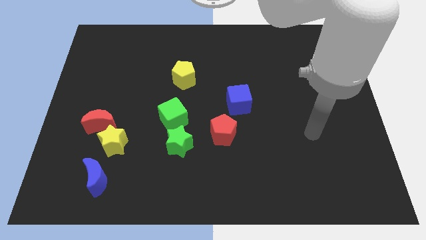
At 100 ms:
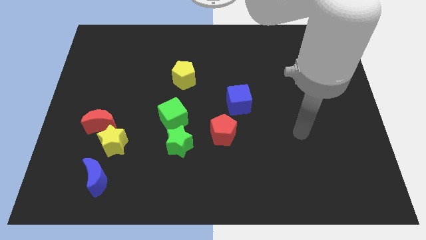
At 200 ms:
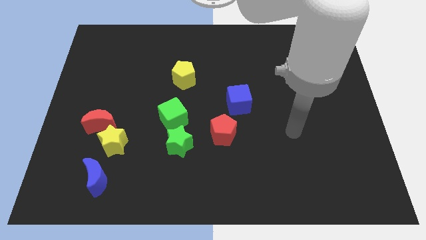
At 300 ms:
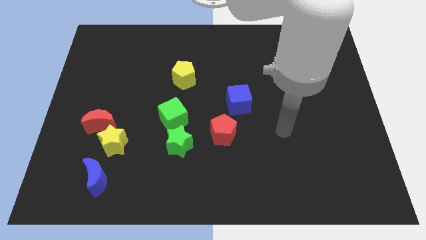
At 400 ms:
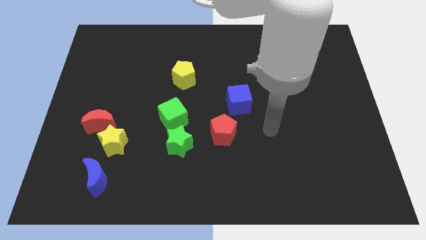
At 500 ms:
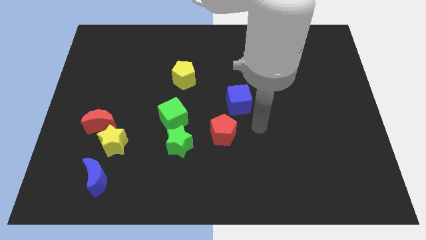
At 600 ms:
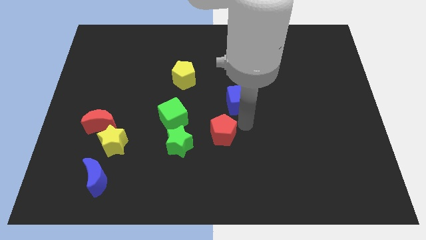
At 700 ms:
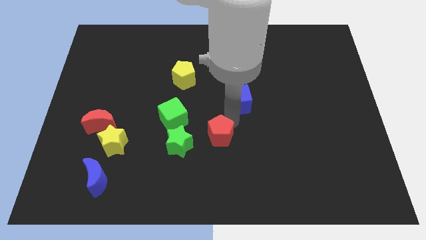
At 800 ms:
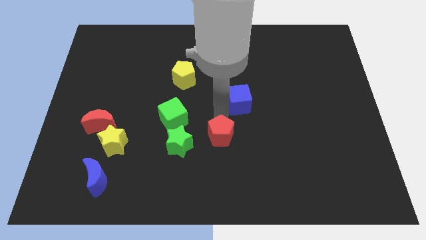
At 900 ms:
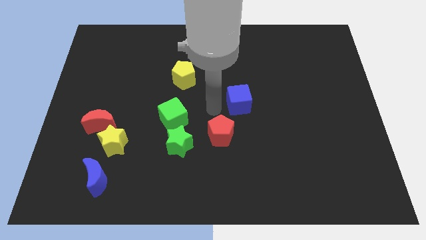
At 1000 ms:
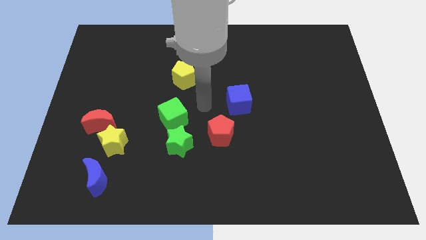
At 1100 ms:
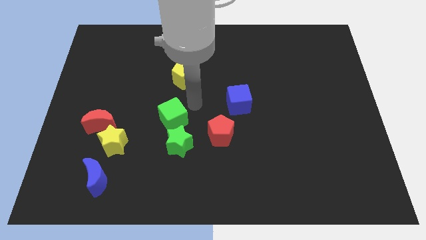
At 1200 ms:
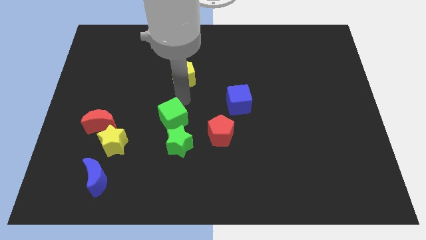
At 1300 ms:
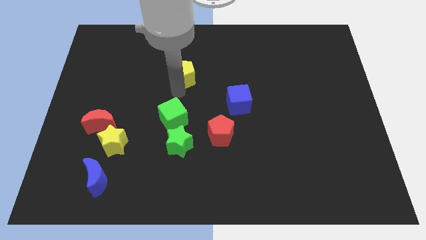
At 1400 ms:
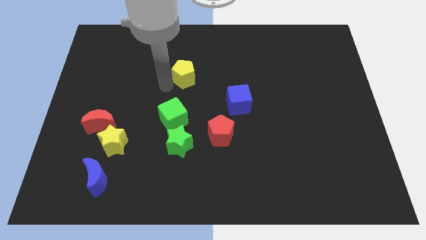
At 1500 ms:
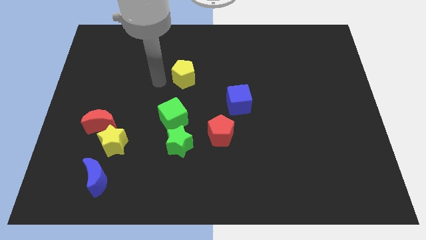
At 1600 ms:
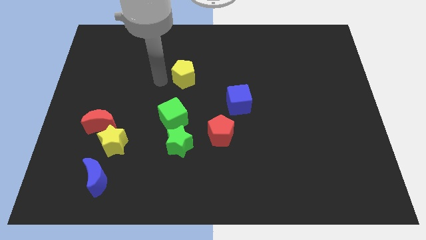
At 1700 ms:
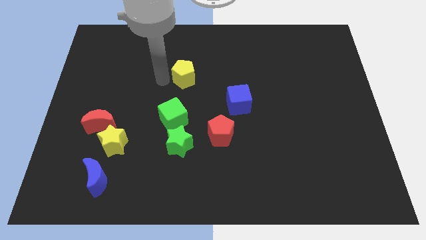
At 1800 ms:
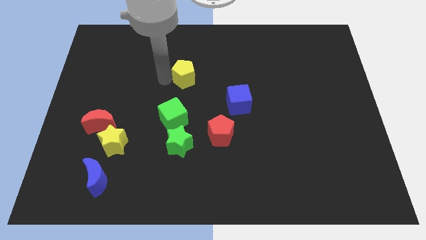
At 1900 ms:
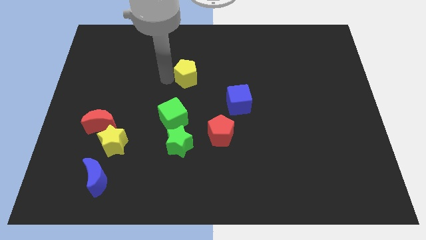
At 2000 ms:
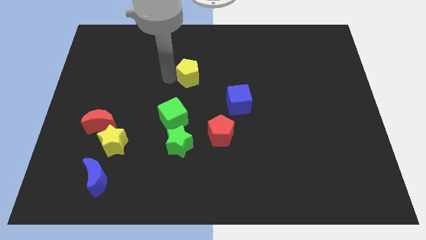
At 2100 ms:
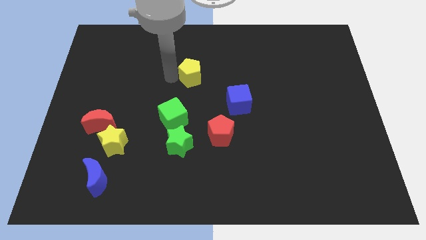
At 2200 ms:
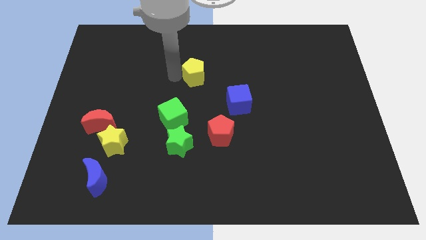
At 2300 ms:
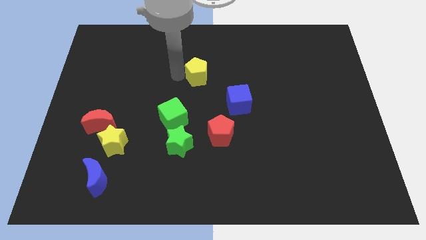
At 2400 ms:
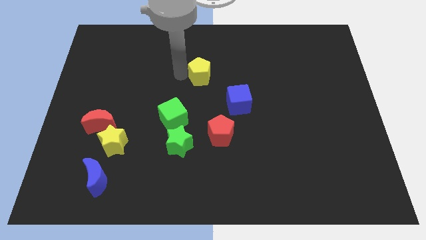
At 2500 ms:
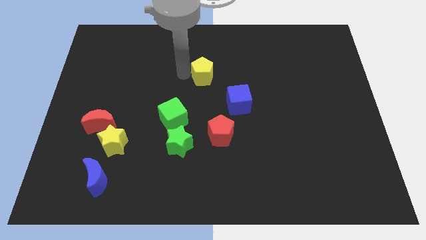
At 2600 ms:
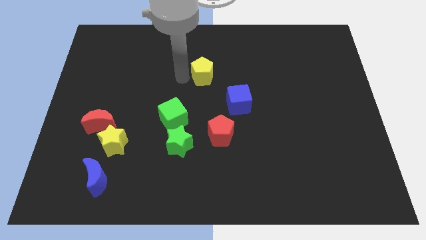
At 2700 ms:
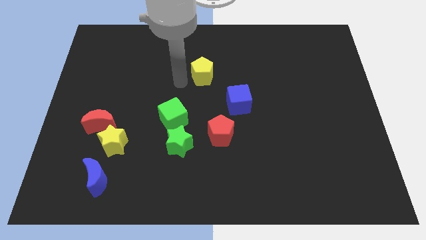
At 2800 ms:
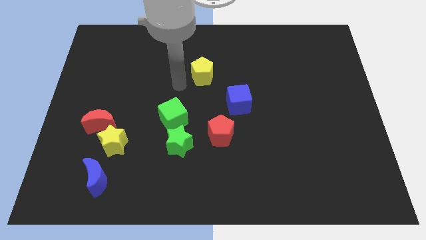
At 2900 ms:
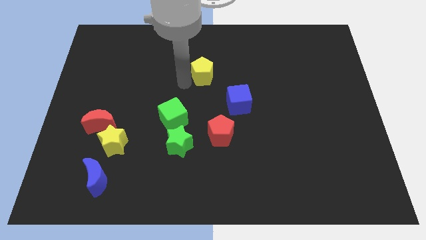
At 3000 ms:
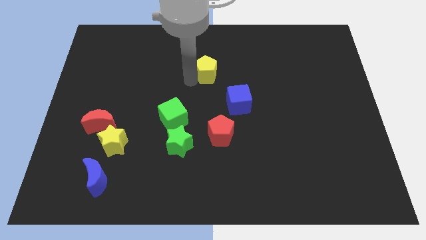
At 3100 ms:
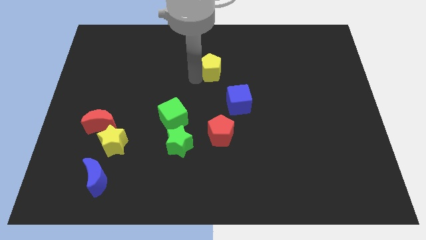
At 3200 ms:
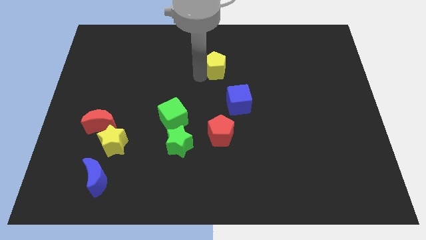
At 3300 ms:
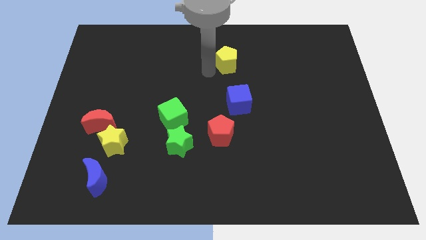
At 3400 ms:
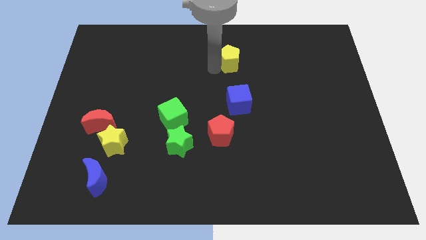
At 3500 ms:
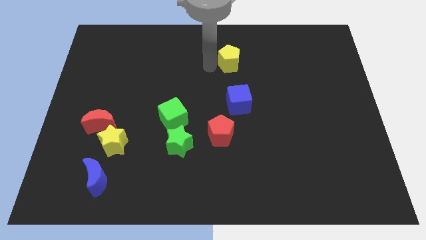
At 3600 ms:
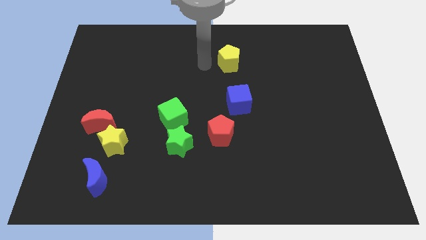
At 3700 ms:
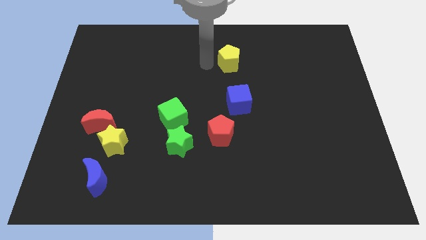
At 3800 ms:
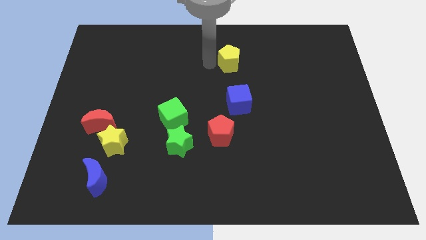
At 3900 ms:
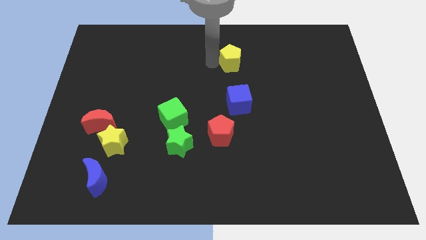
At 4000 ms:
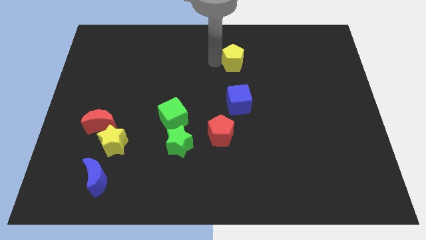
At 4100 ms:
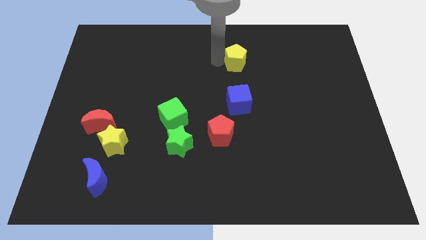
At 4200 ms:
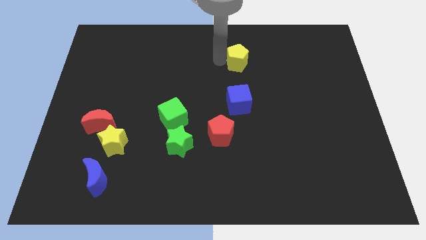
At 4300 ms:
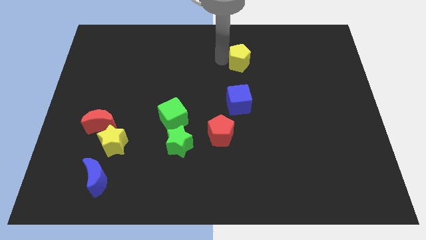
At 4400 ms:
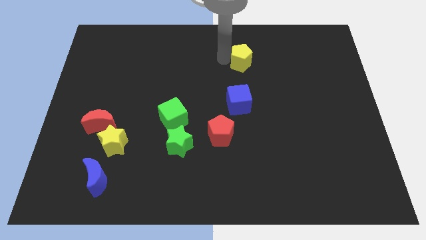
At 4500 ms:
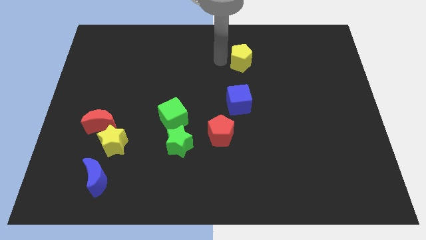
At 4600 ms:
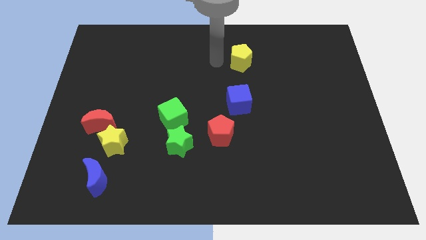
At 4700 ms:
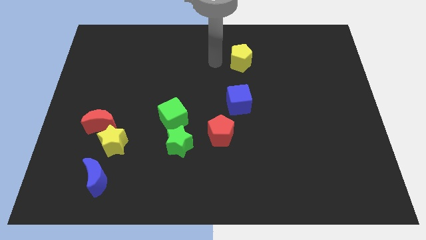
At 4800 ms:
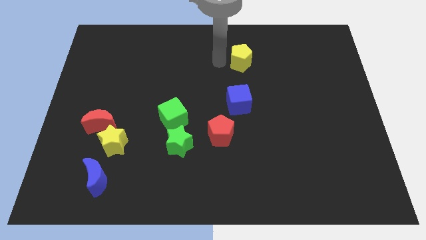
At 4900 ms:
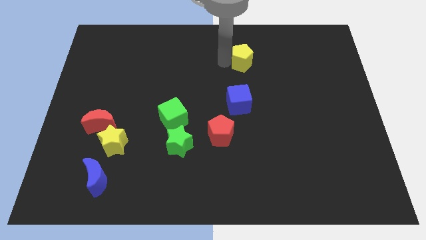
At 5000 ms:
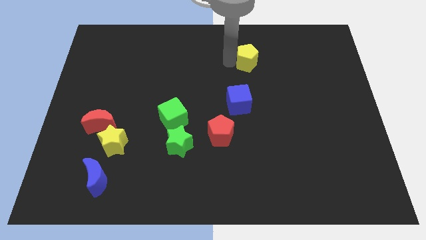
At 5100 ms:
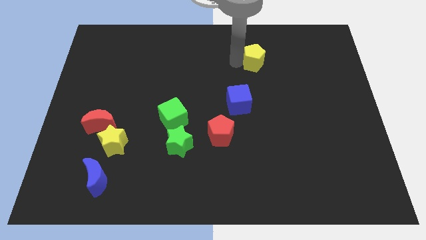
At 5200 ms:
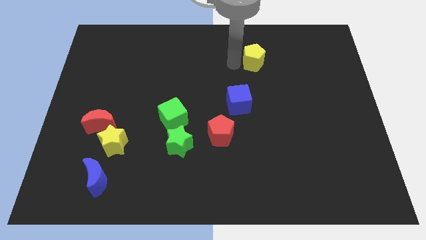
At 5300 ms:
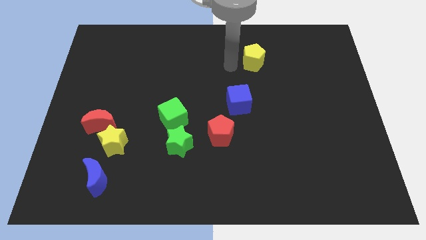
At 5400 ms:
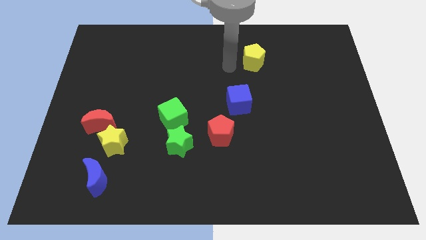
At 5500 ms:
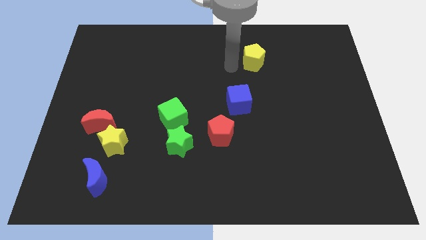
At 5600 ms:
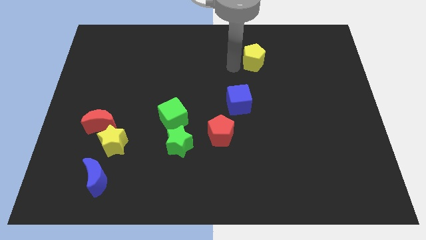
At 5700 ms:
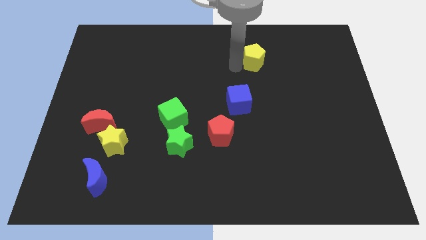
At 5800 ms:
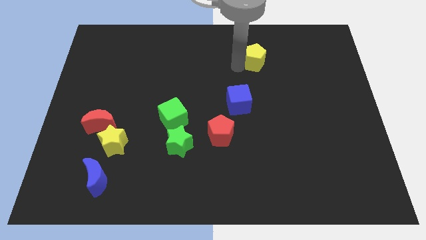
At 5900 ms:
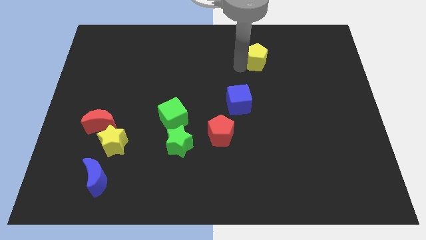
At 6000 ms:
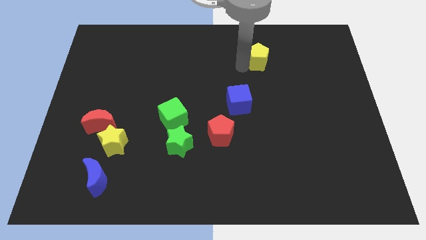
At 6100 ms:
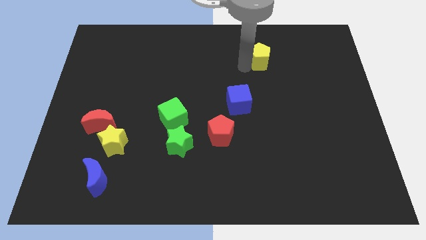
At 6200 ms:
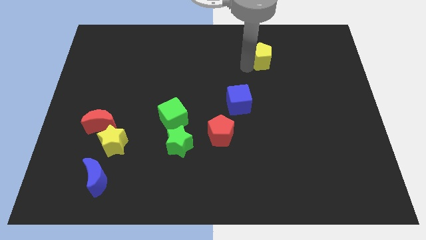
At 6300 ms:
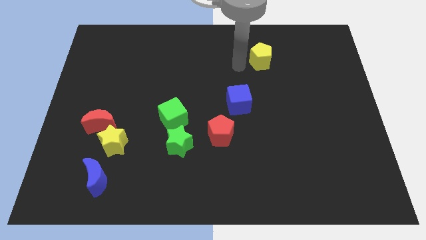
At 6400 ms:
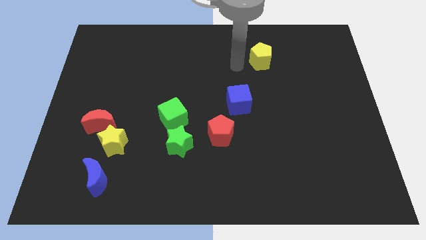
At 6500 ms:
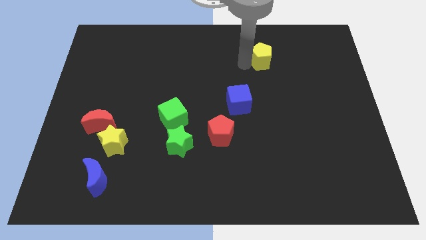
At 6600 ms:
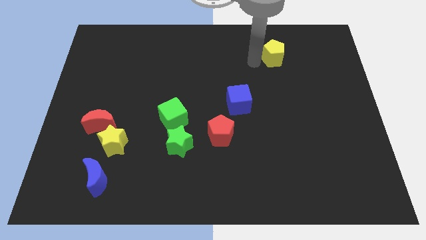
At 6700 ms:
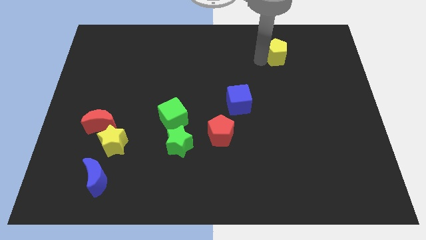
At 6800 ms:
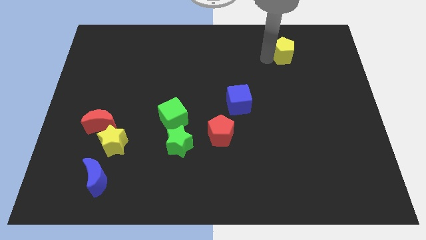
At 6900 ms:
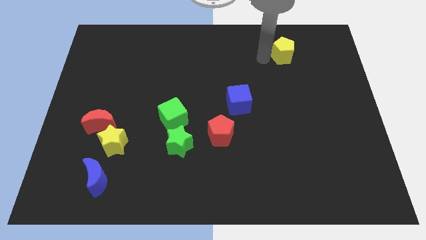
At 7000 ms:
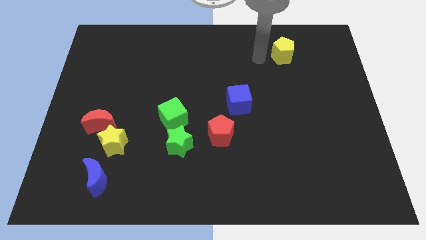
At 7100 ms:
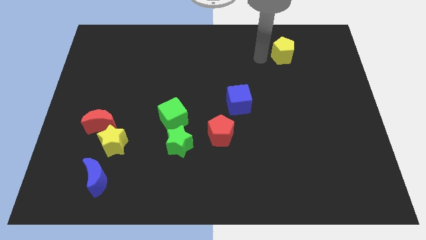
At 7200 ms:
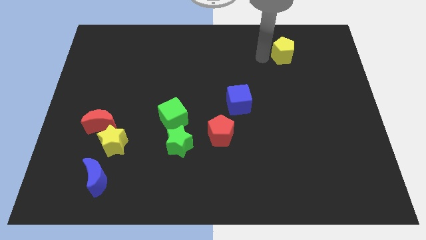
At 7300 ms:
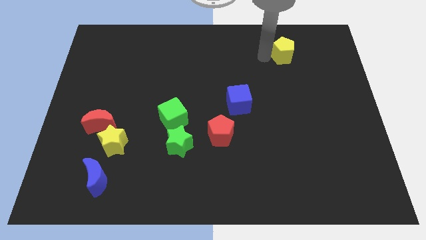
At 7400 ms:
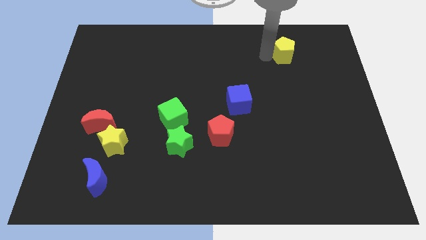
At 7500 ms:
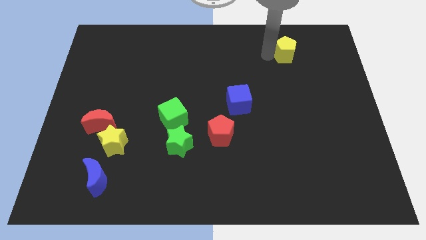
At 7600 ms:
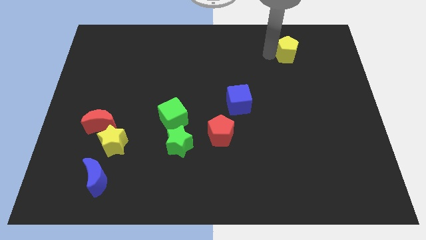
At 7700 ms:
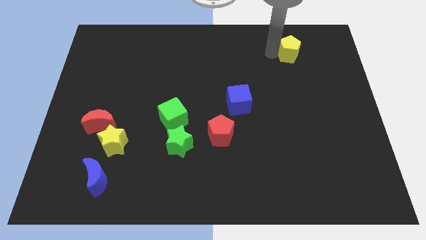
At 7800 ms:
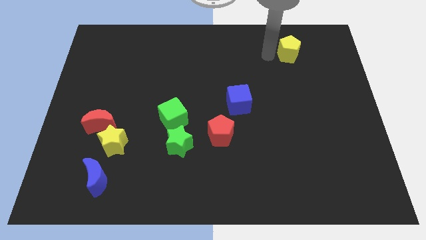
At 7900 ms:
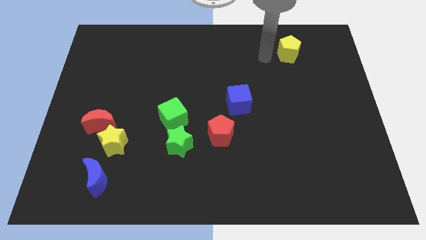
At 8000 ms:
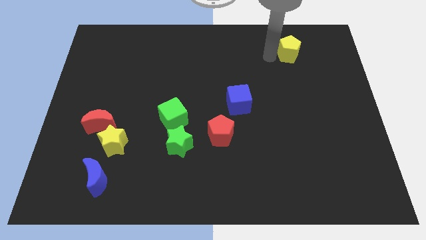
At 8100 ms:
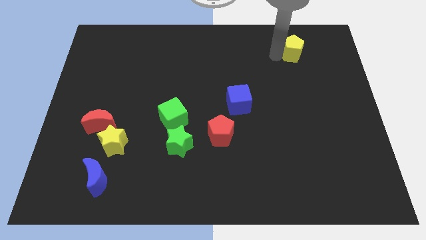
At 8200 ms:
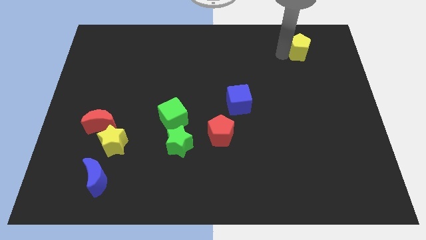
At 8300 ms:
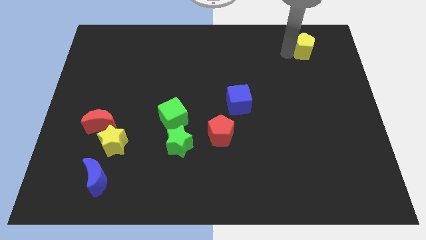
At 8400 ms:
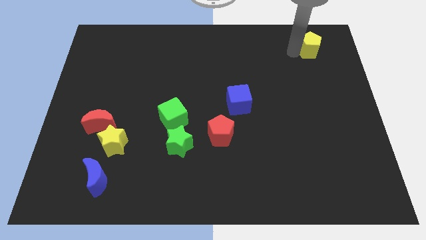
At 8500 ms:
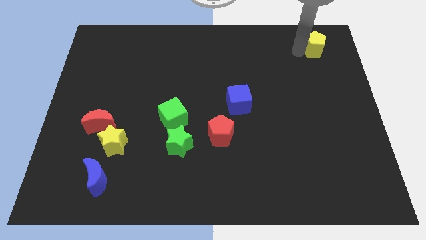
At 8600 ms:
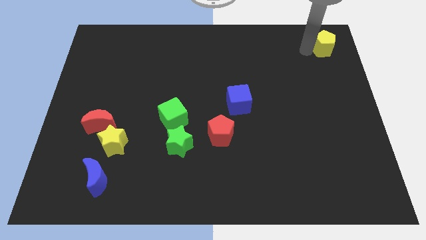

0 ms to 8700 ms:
push the yellow pentagon to the top right of the board
